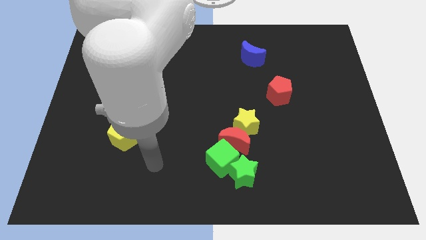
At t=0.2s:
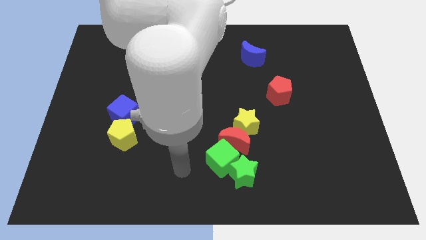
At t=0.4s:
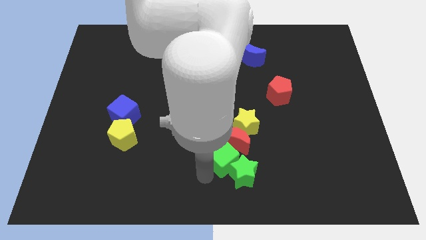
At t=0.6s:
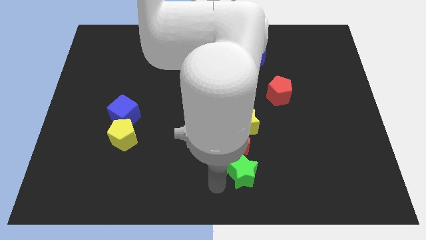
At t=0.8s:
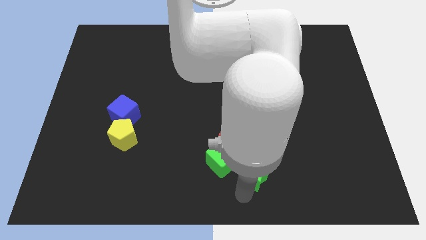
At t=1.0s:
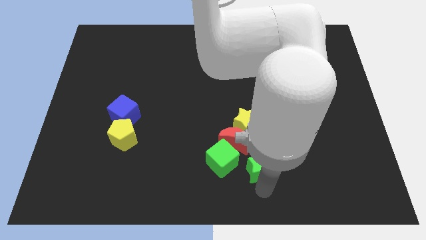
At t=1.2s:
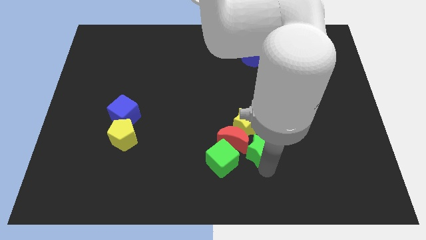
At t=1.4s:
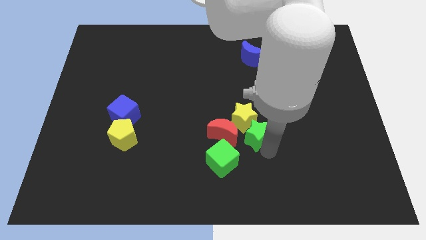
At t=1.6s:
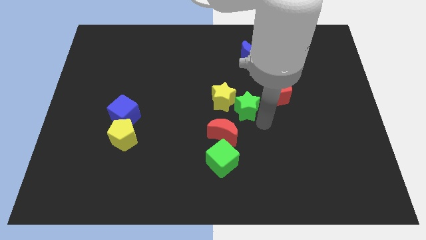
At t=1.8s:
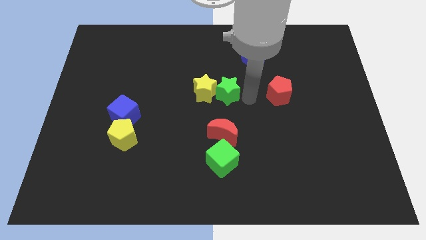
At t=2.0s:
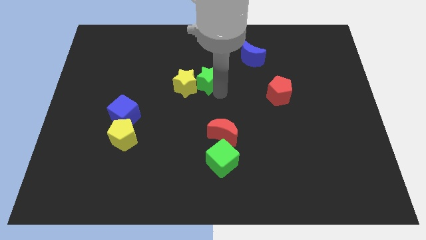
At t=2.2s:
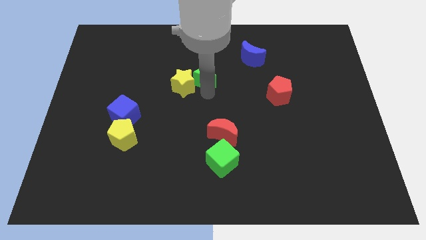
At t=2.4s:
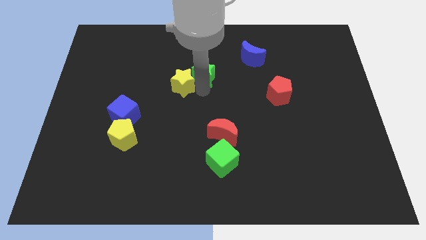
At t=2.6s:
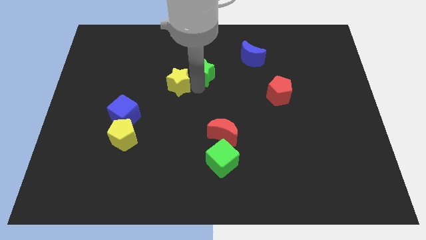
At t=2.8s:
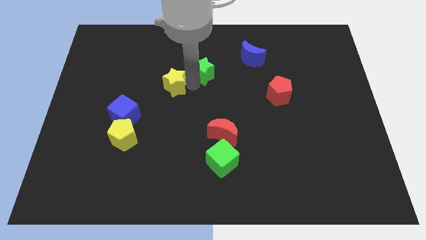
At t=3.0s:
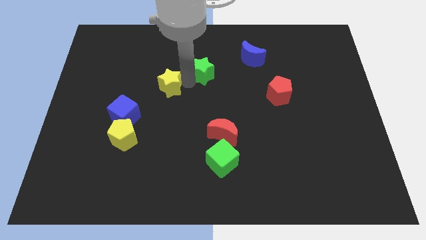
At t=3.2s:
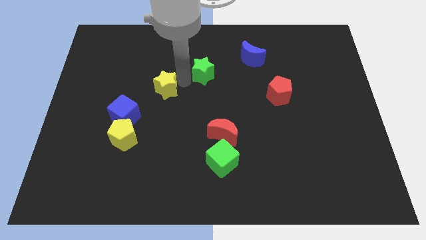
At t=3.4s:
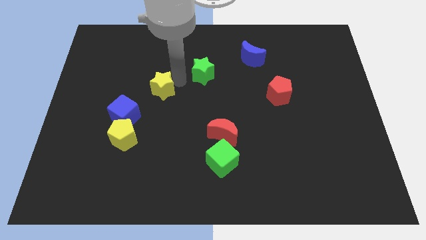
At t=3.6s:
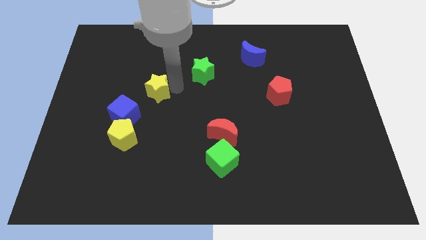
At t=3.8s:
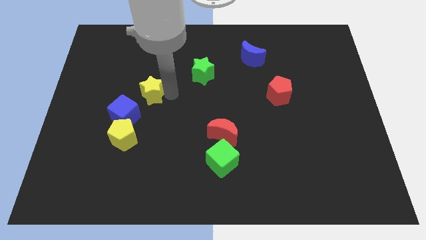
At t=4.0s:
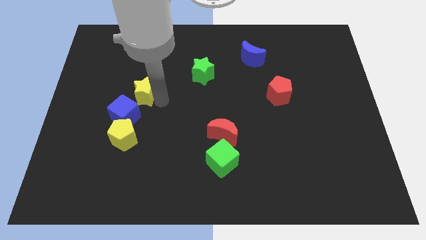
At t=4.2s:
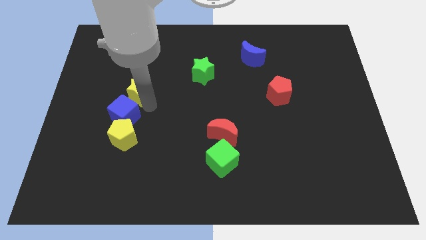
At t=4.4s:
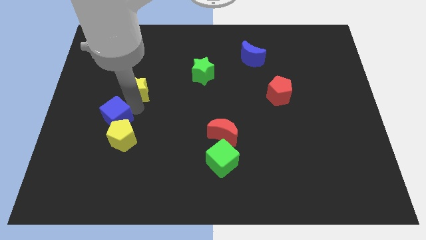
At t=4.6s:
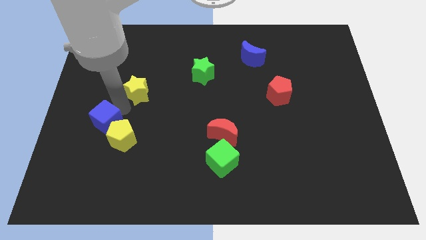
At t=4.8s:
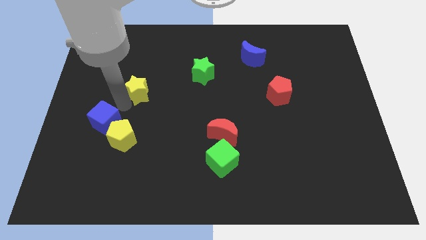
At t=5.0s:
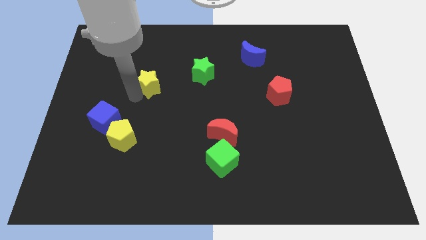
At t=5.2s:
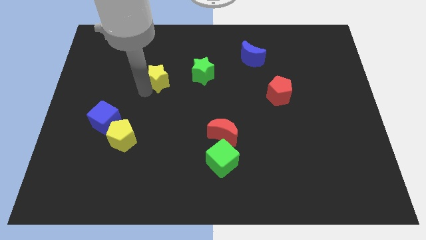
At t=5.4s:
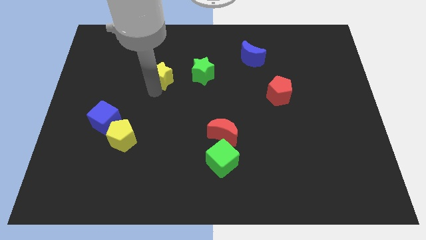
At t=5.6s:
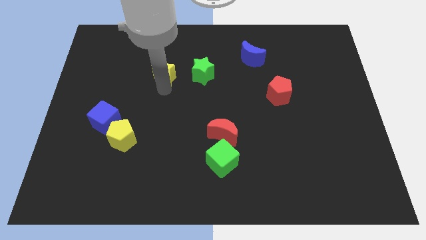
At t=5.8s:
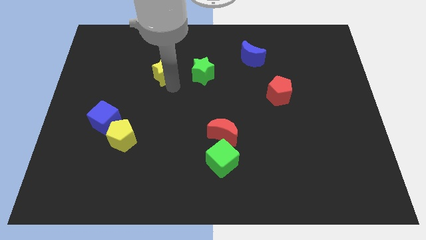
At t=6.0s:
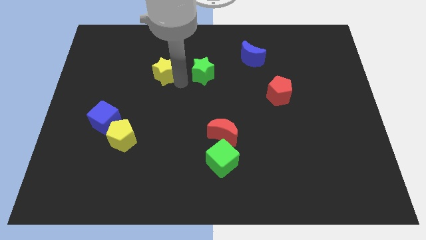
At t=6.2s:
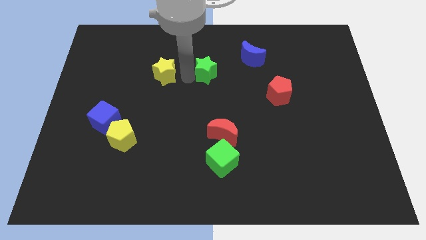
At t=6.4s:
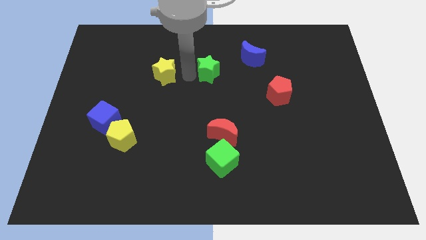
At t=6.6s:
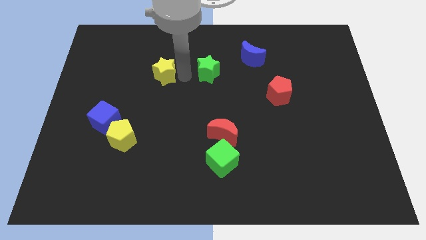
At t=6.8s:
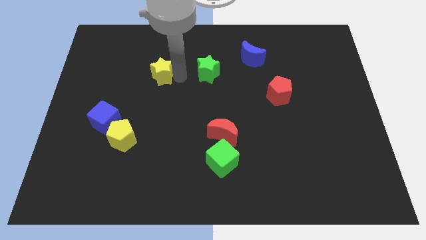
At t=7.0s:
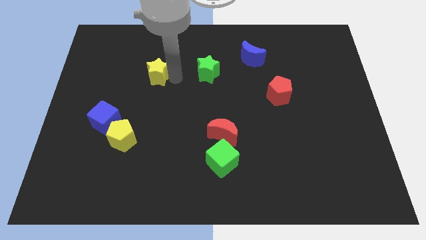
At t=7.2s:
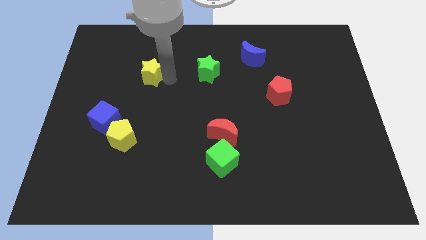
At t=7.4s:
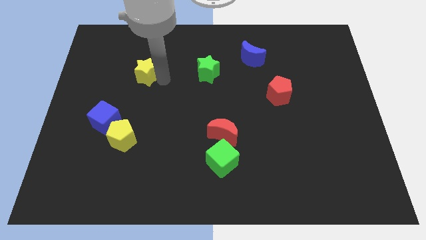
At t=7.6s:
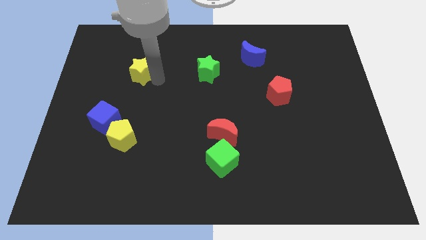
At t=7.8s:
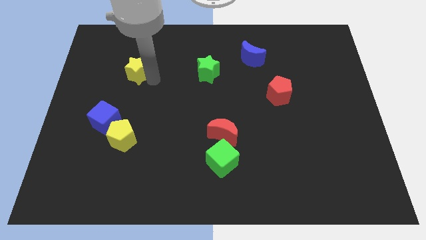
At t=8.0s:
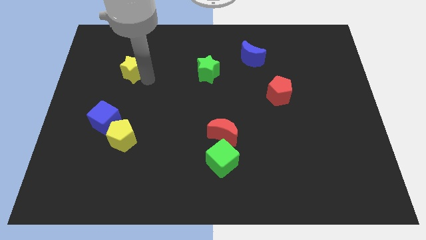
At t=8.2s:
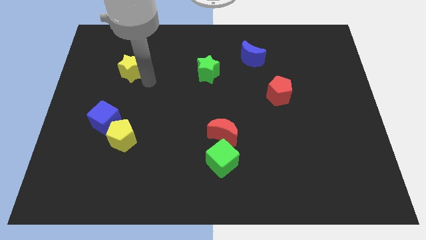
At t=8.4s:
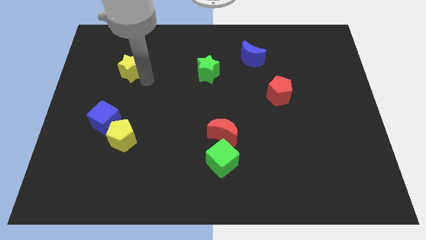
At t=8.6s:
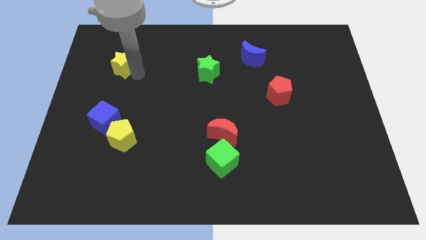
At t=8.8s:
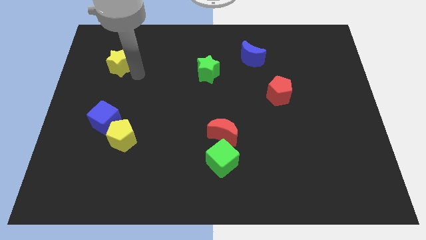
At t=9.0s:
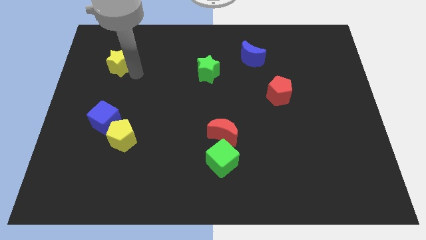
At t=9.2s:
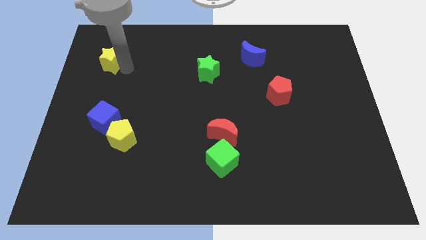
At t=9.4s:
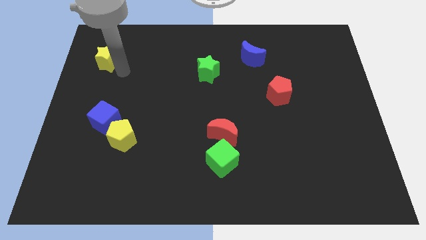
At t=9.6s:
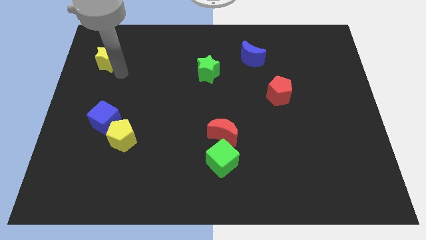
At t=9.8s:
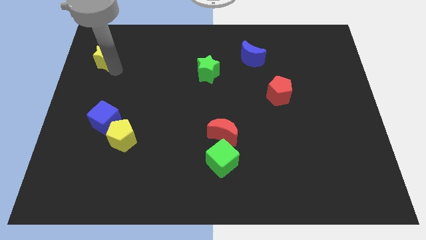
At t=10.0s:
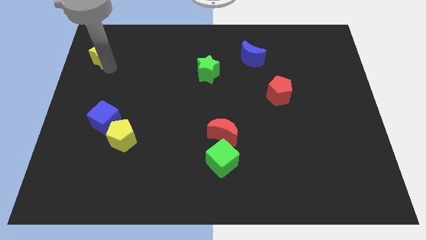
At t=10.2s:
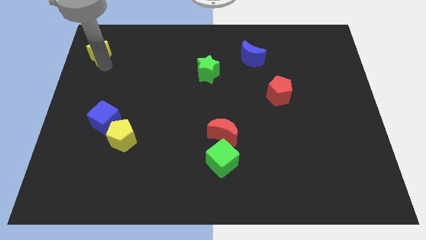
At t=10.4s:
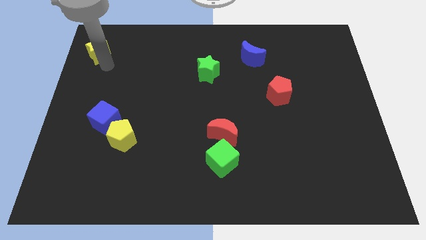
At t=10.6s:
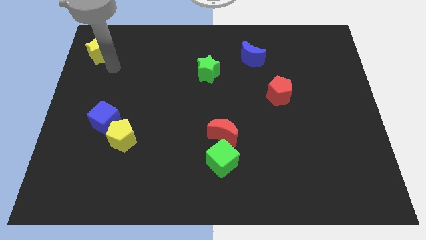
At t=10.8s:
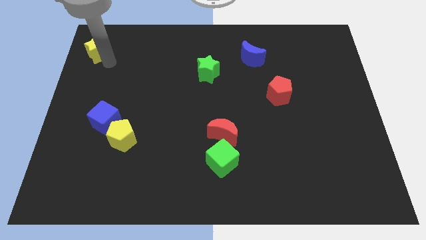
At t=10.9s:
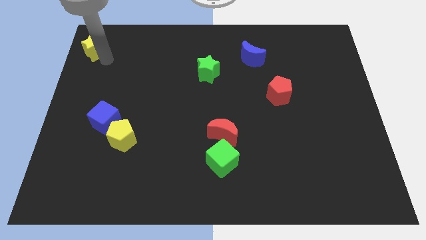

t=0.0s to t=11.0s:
push the yellow star to the top left corner
